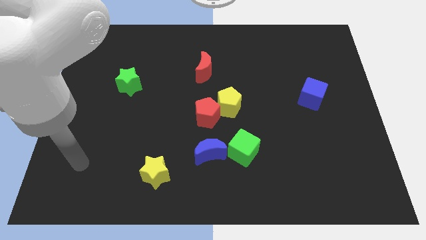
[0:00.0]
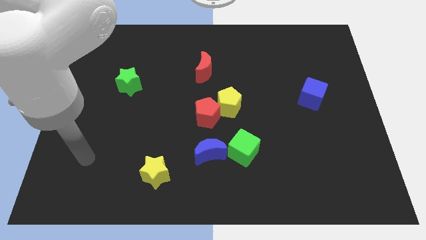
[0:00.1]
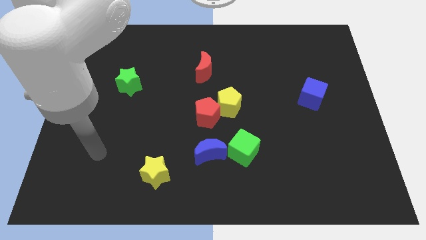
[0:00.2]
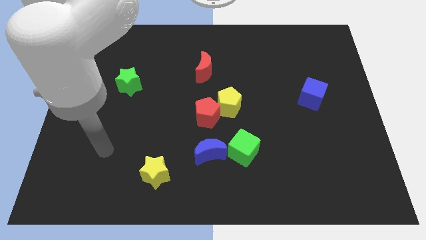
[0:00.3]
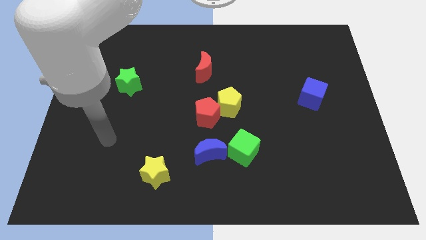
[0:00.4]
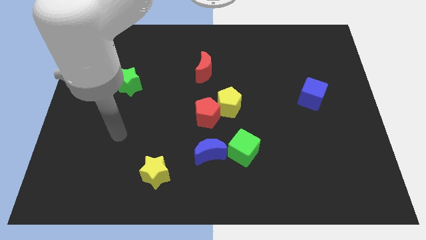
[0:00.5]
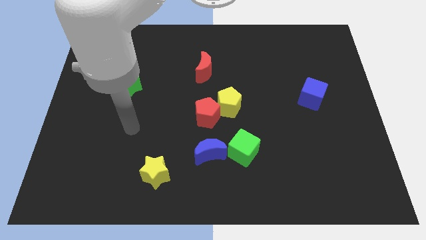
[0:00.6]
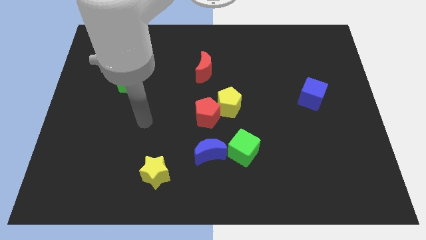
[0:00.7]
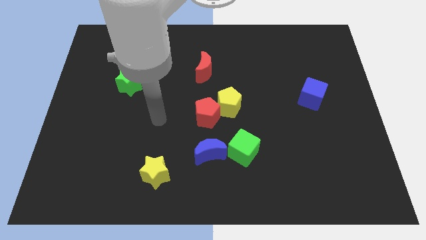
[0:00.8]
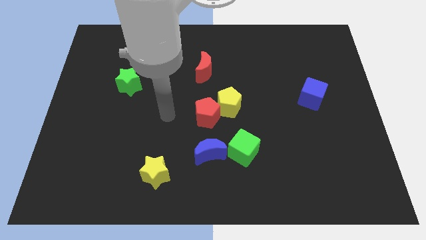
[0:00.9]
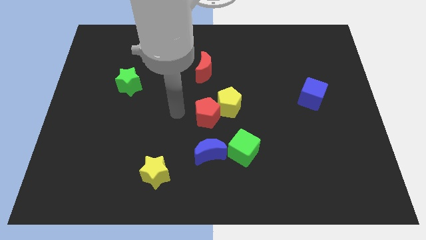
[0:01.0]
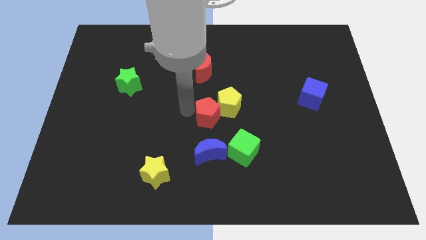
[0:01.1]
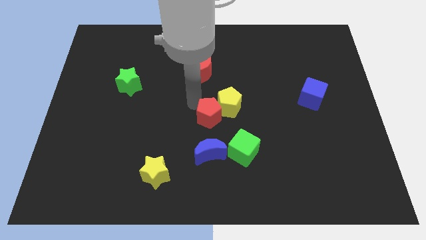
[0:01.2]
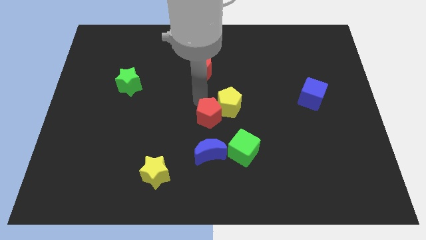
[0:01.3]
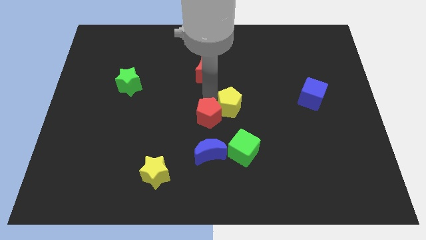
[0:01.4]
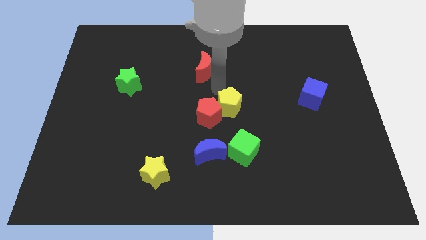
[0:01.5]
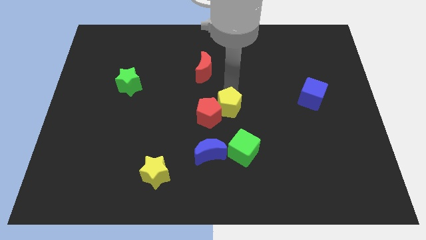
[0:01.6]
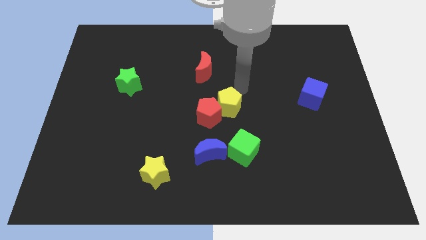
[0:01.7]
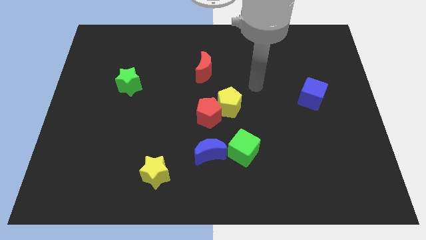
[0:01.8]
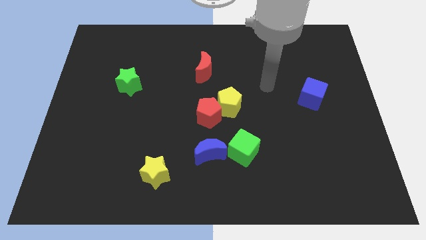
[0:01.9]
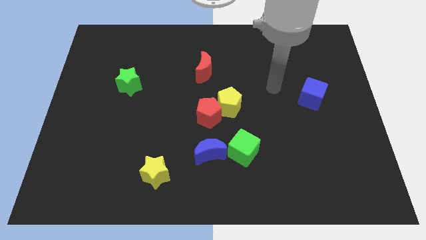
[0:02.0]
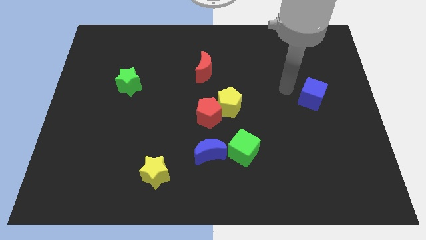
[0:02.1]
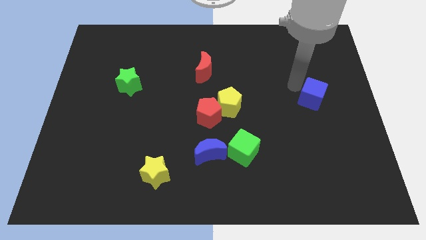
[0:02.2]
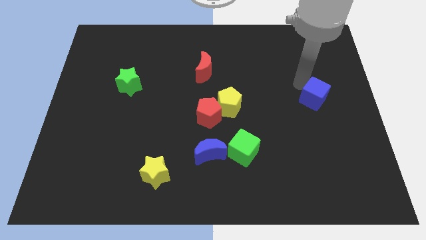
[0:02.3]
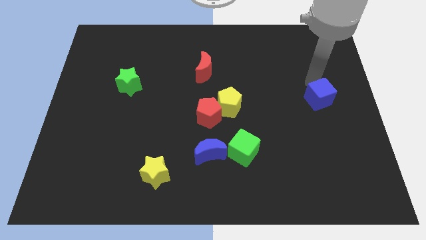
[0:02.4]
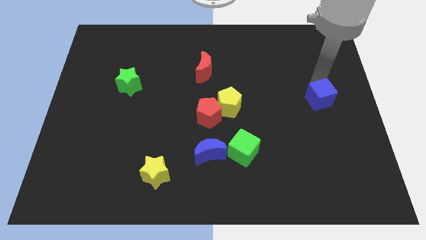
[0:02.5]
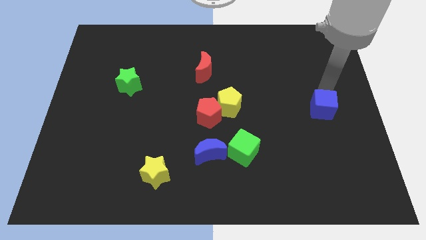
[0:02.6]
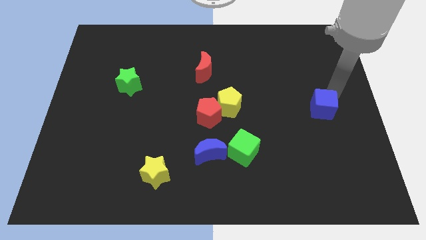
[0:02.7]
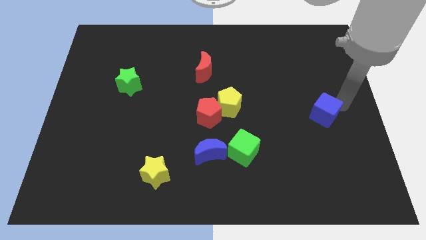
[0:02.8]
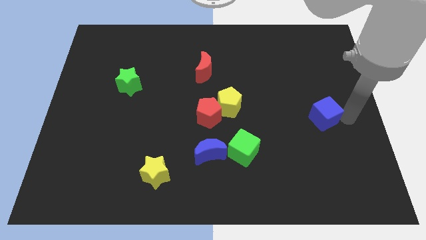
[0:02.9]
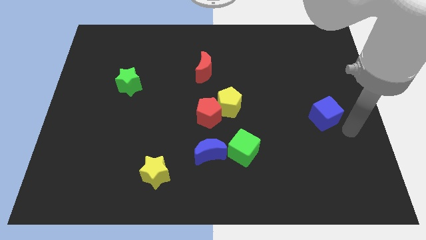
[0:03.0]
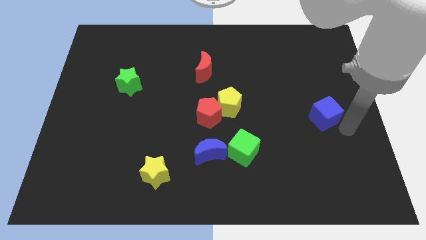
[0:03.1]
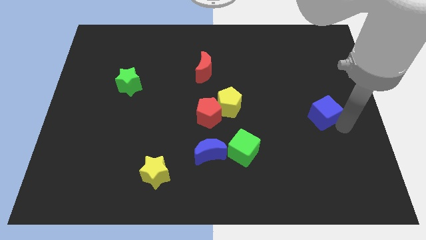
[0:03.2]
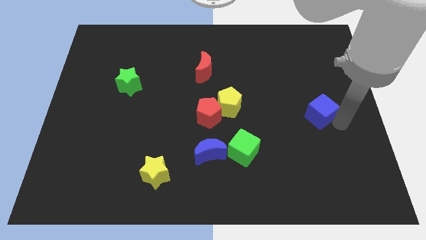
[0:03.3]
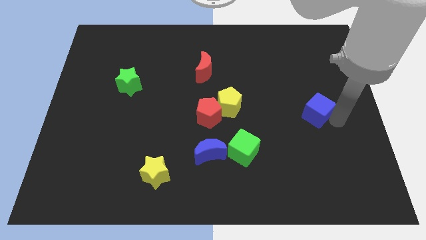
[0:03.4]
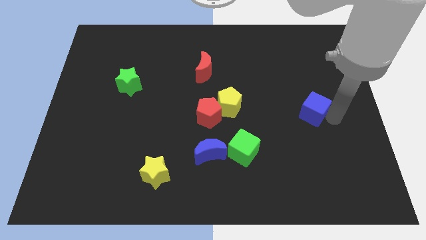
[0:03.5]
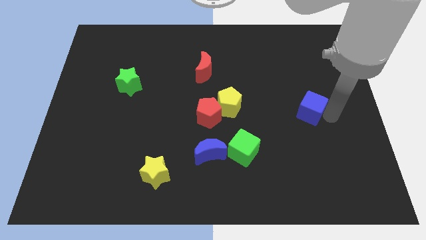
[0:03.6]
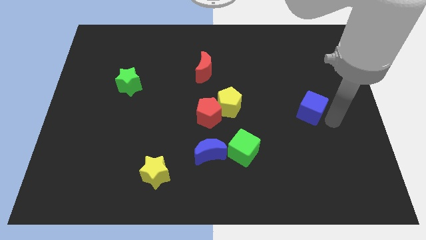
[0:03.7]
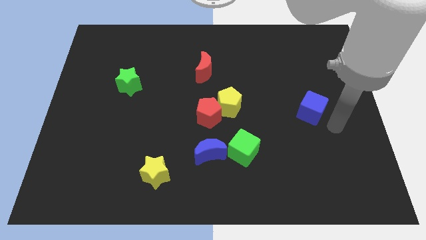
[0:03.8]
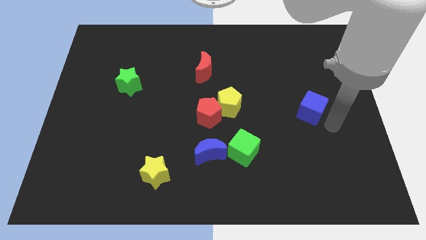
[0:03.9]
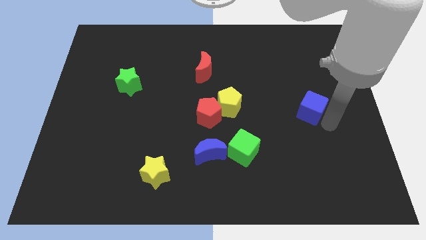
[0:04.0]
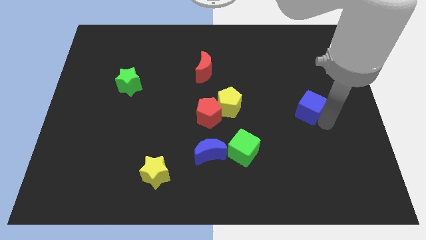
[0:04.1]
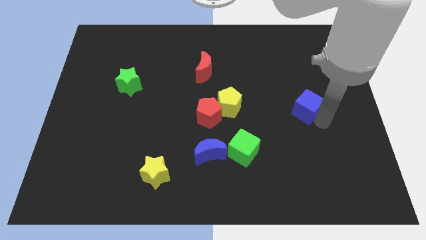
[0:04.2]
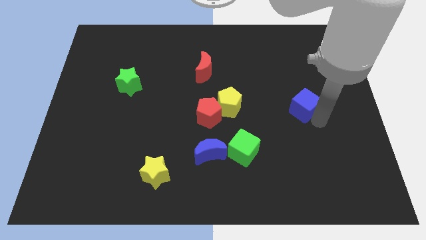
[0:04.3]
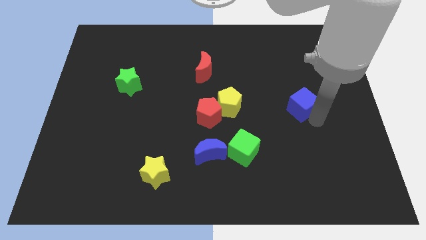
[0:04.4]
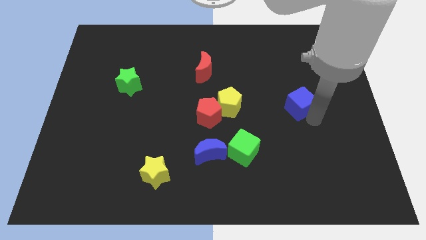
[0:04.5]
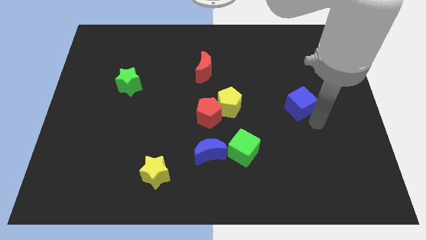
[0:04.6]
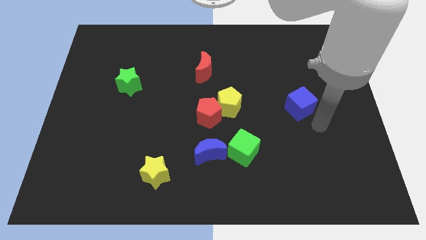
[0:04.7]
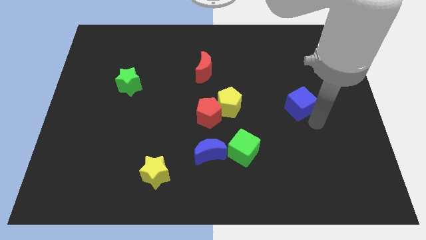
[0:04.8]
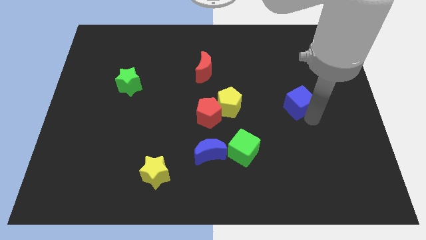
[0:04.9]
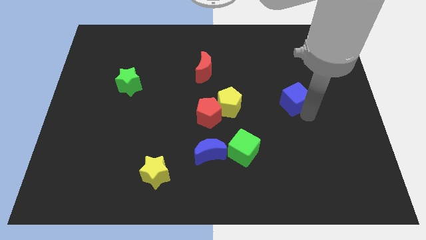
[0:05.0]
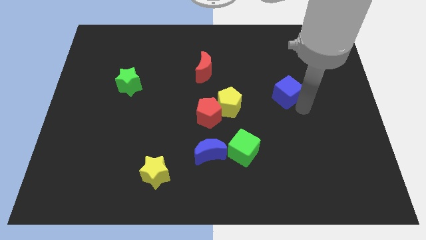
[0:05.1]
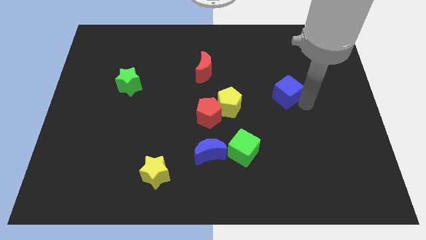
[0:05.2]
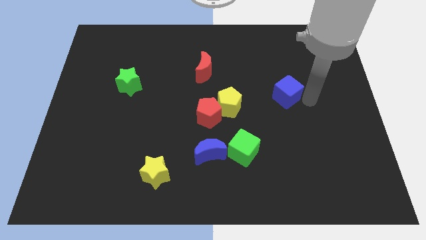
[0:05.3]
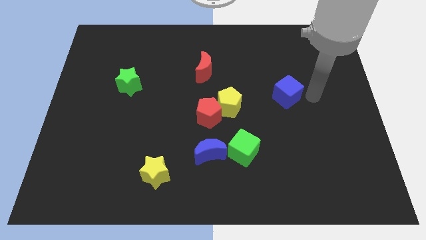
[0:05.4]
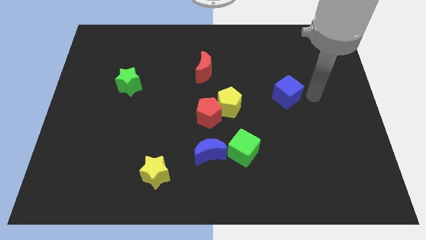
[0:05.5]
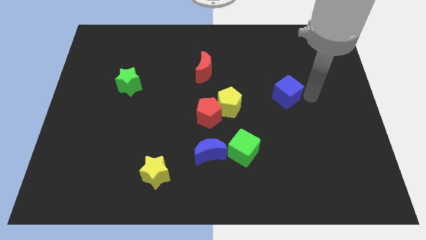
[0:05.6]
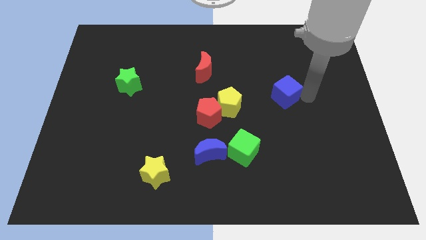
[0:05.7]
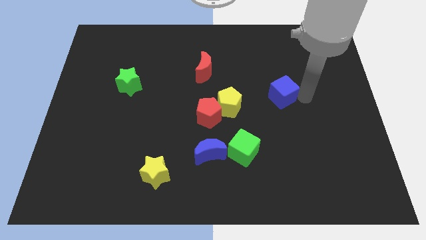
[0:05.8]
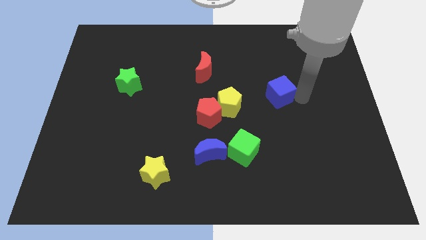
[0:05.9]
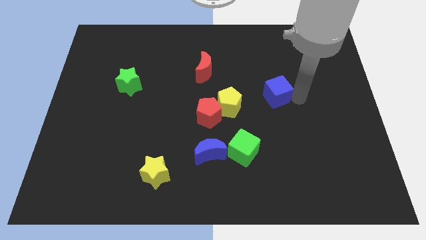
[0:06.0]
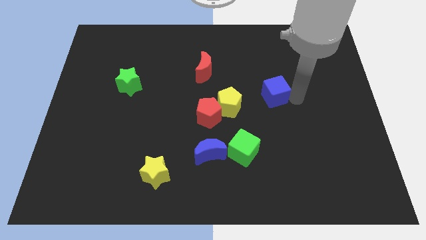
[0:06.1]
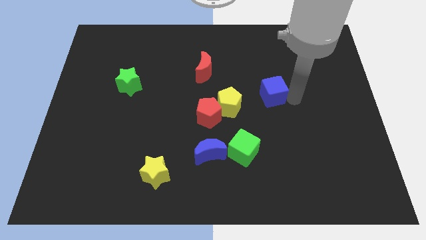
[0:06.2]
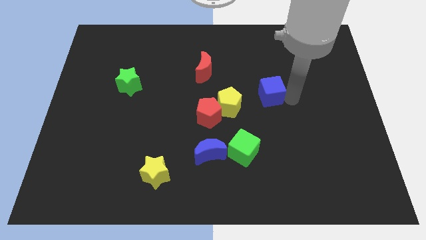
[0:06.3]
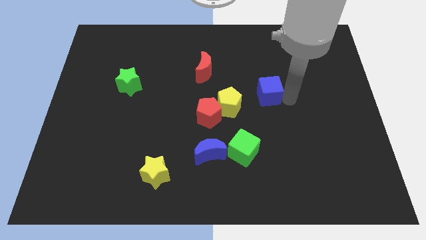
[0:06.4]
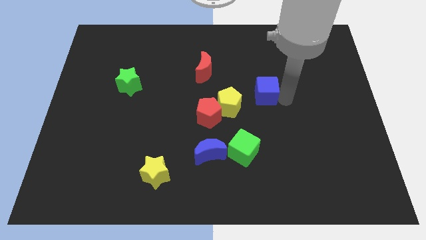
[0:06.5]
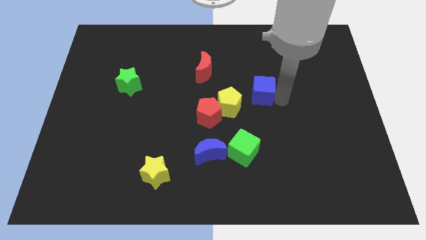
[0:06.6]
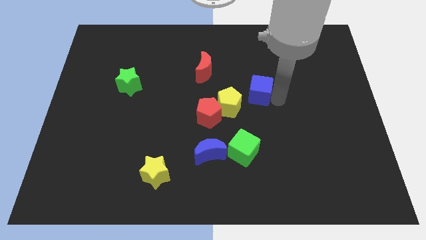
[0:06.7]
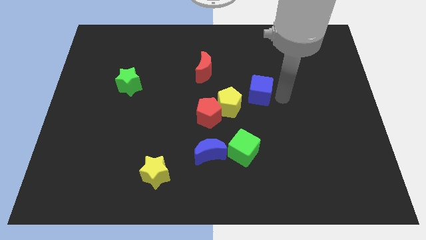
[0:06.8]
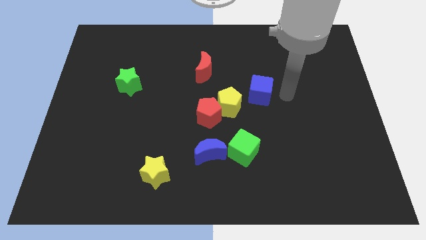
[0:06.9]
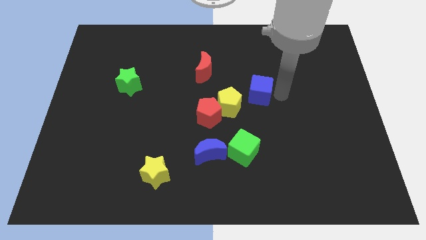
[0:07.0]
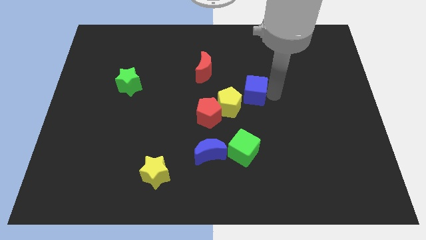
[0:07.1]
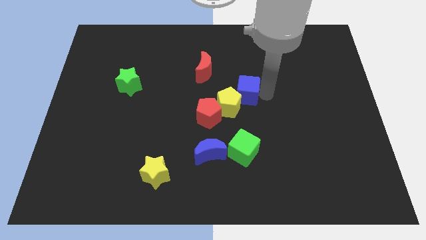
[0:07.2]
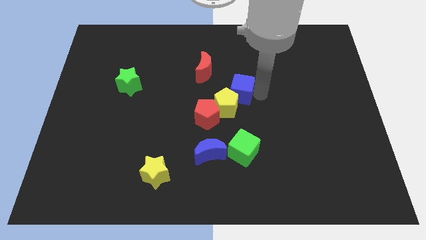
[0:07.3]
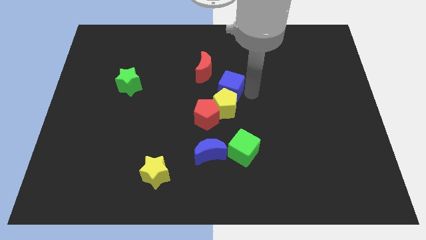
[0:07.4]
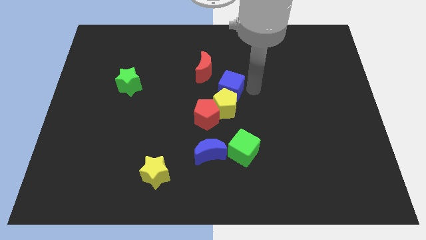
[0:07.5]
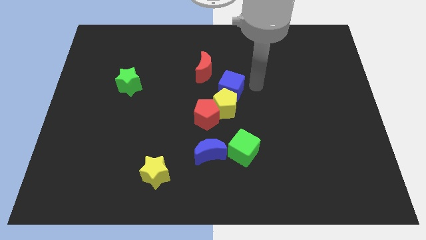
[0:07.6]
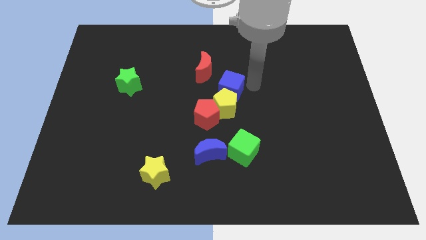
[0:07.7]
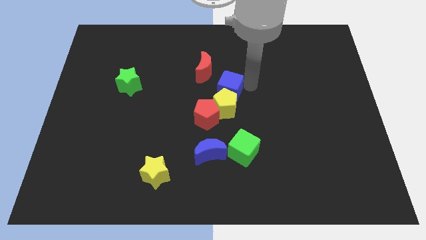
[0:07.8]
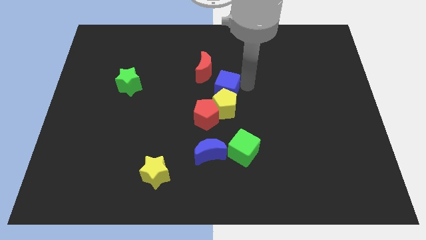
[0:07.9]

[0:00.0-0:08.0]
move the blue cube left
